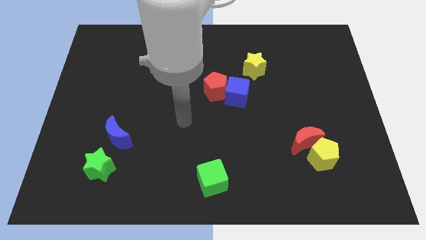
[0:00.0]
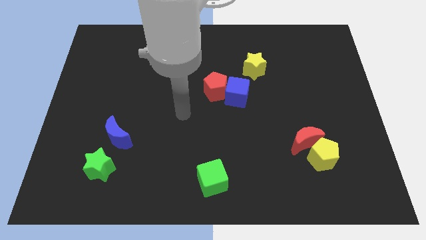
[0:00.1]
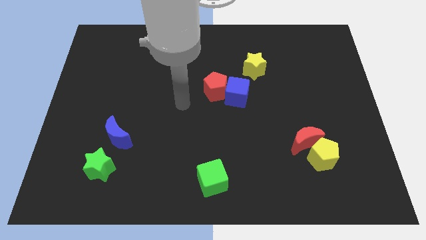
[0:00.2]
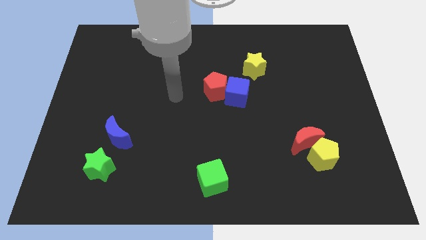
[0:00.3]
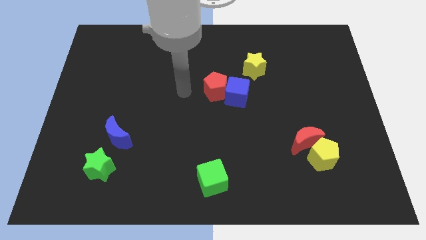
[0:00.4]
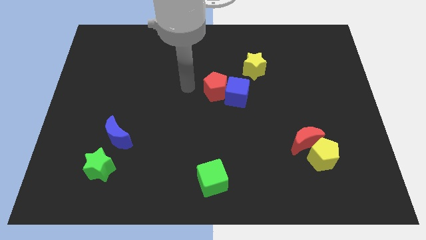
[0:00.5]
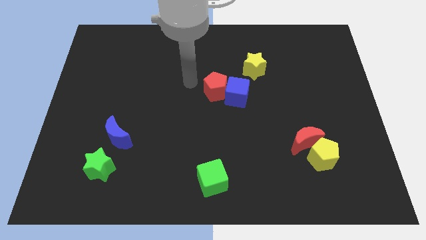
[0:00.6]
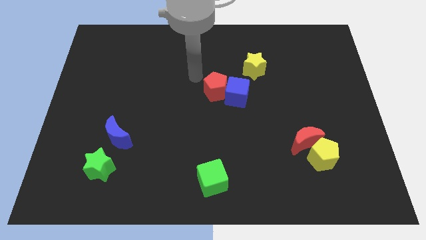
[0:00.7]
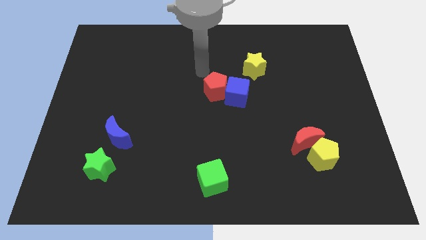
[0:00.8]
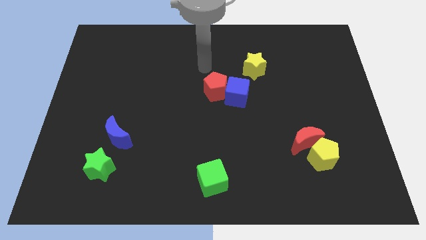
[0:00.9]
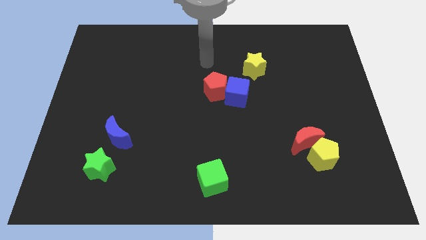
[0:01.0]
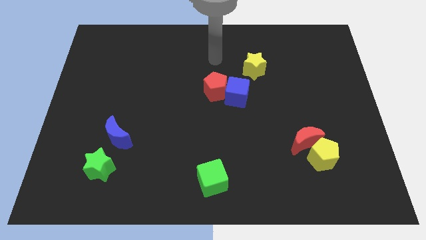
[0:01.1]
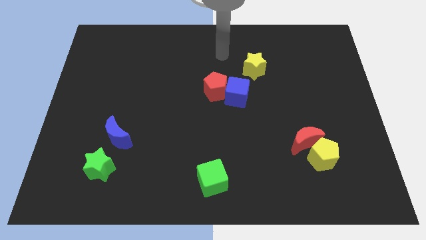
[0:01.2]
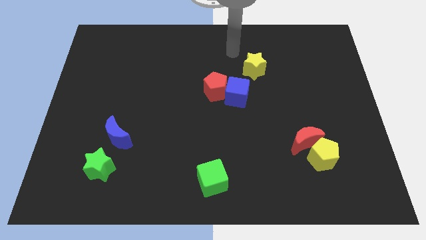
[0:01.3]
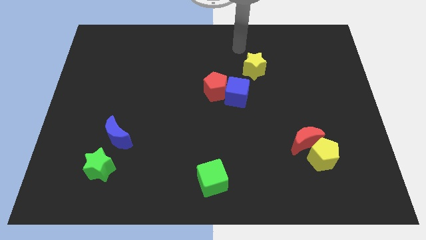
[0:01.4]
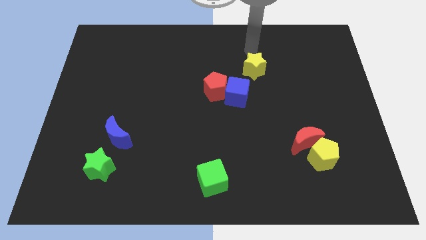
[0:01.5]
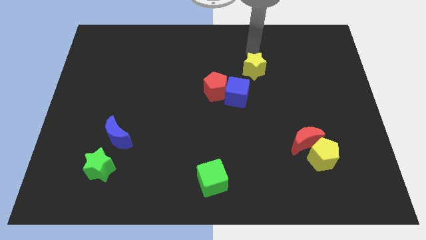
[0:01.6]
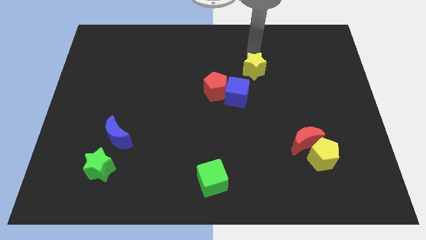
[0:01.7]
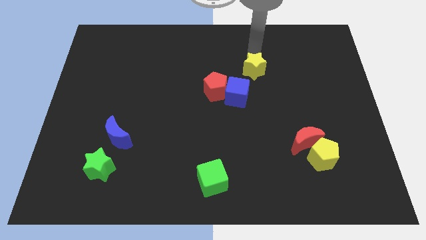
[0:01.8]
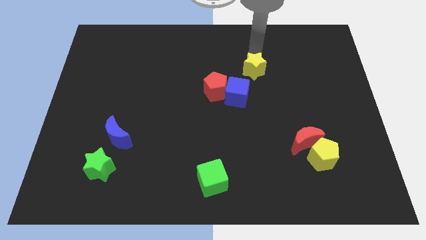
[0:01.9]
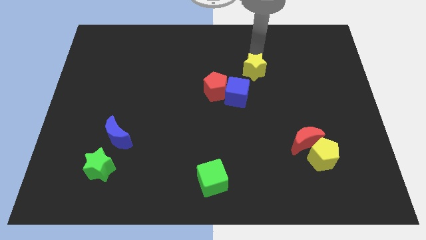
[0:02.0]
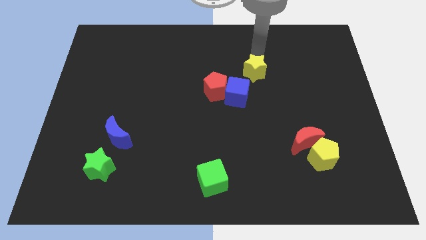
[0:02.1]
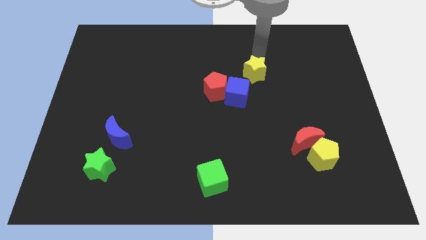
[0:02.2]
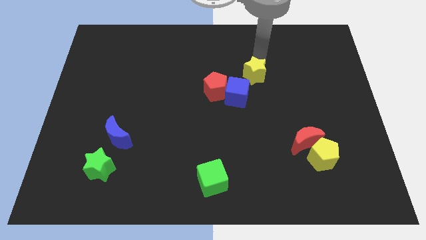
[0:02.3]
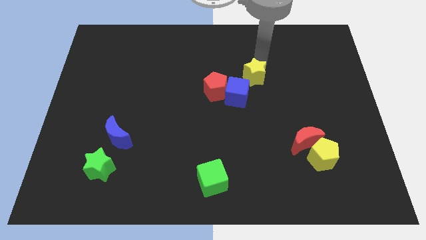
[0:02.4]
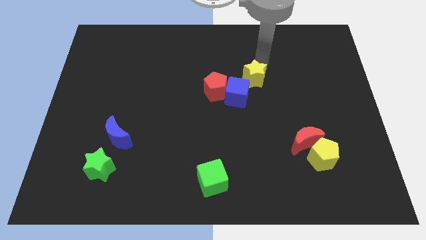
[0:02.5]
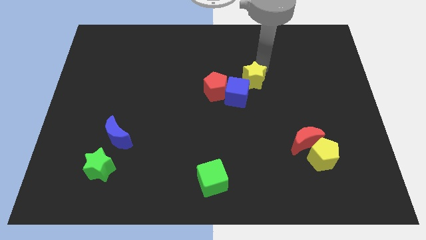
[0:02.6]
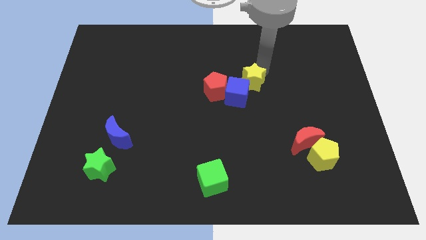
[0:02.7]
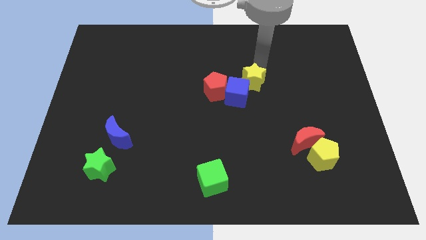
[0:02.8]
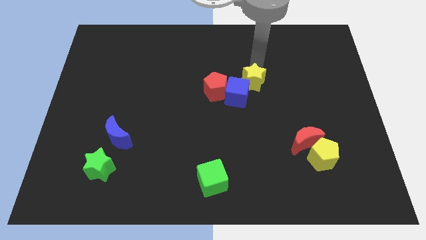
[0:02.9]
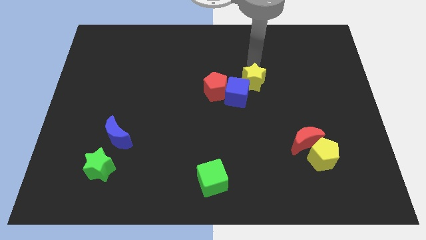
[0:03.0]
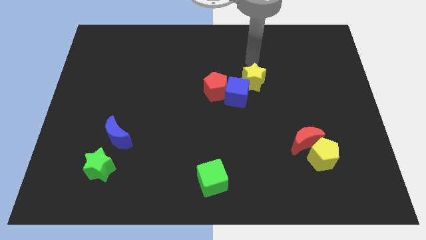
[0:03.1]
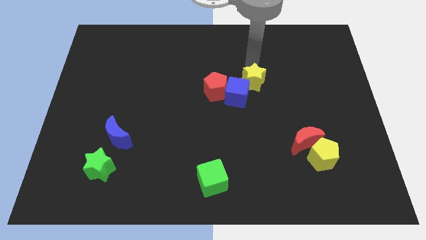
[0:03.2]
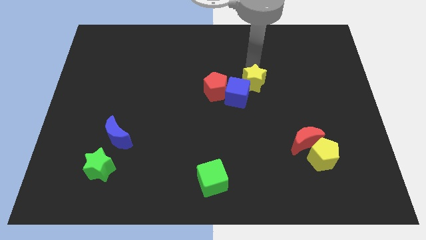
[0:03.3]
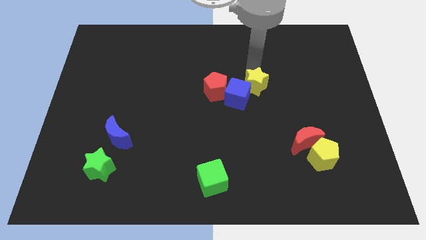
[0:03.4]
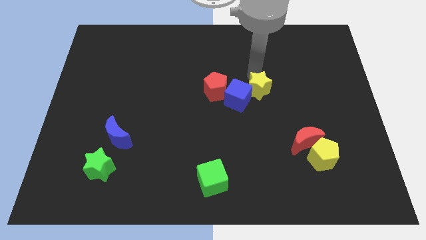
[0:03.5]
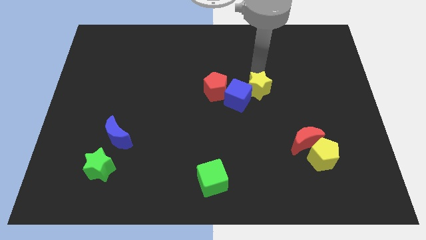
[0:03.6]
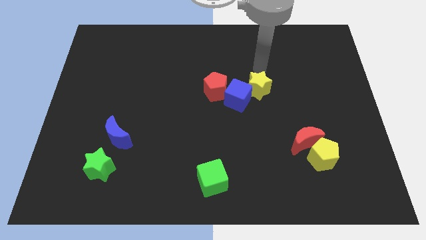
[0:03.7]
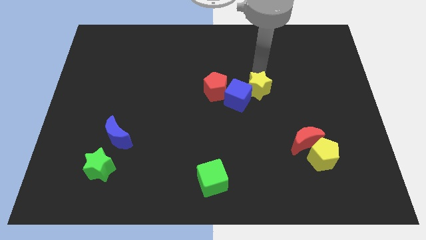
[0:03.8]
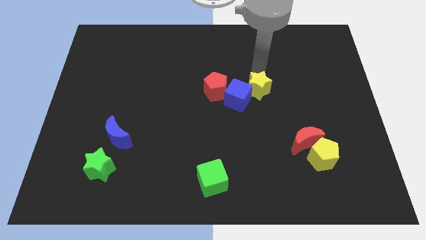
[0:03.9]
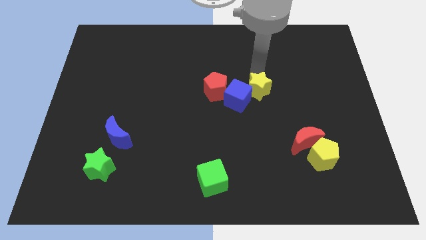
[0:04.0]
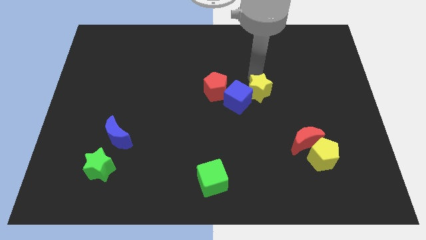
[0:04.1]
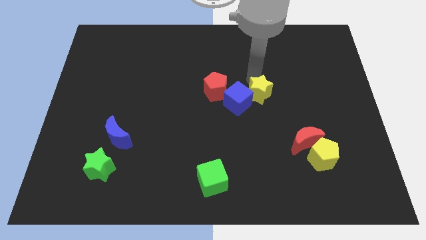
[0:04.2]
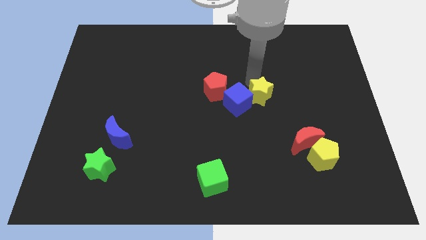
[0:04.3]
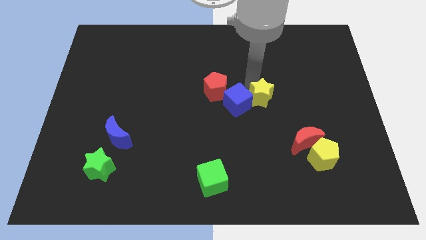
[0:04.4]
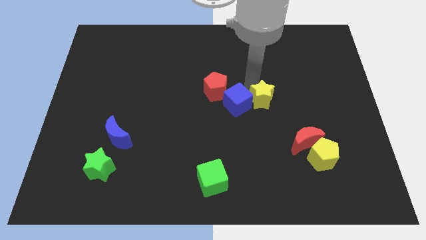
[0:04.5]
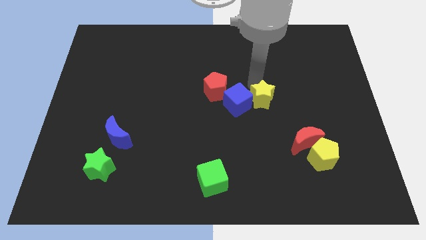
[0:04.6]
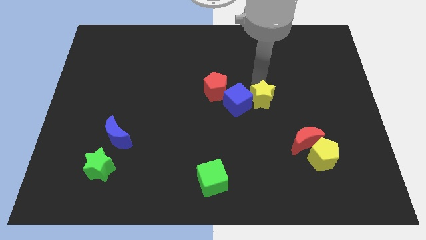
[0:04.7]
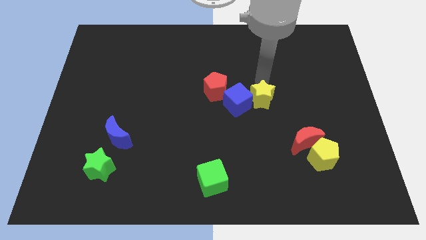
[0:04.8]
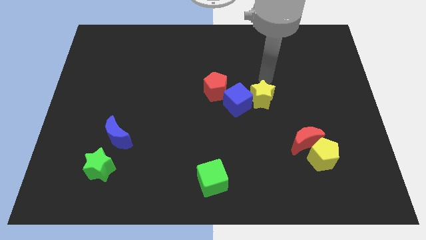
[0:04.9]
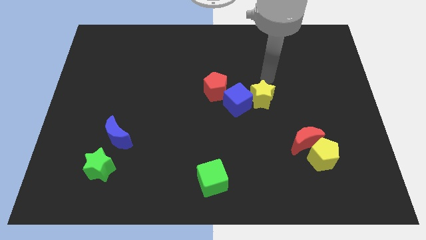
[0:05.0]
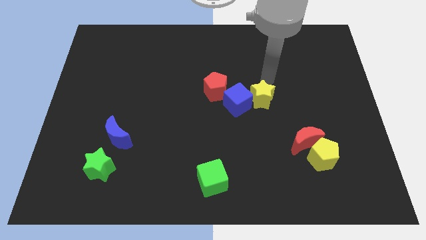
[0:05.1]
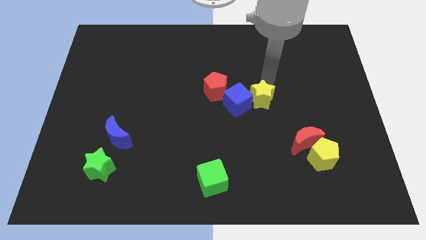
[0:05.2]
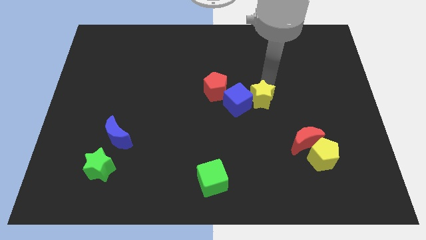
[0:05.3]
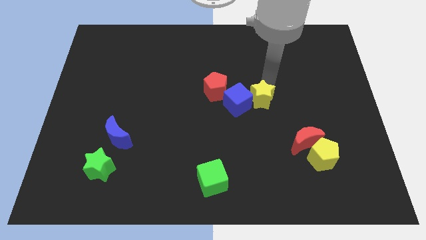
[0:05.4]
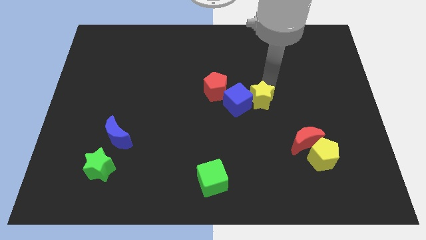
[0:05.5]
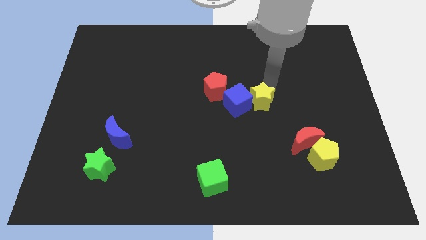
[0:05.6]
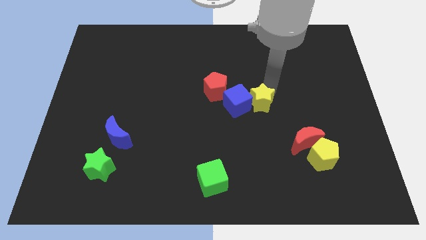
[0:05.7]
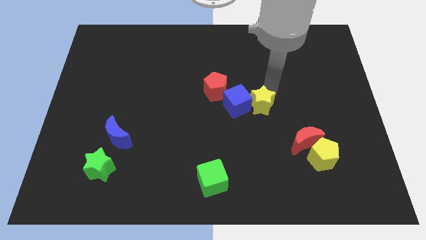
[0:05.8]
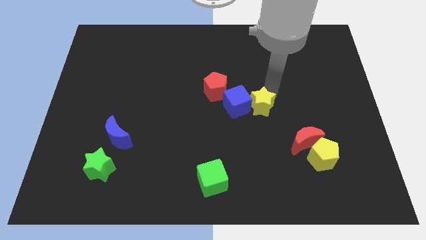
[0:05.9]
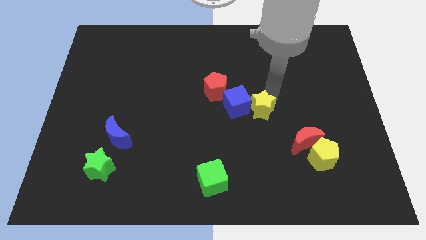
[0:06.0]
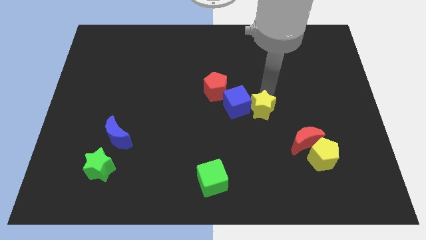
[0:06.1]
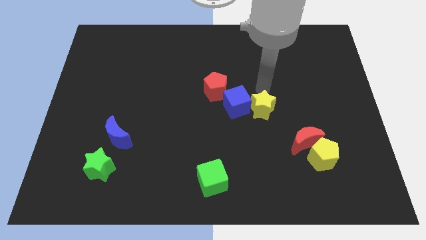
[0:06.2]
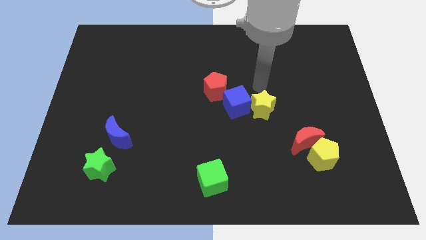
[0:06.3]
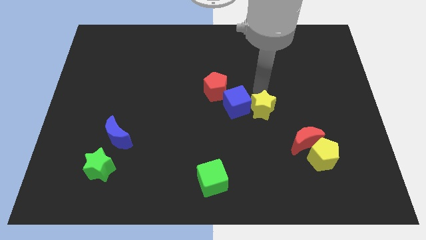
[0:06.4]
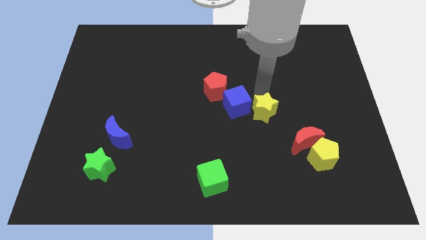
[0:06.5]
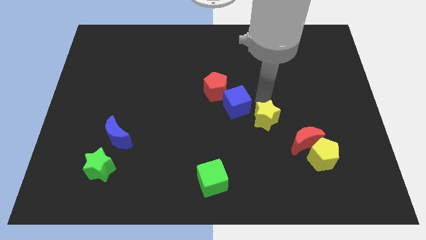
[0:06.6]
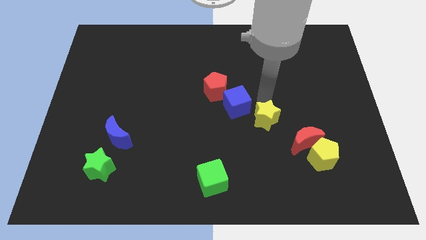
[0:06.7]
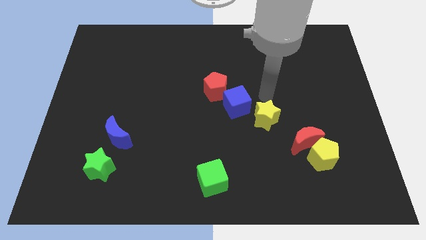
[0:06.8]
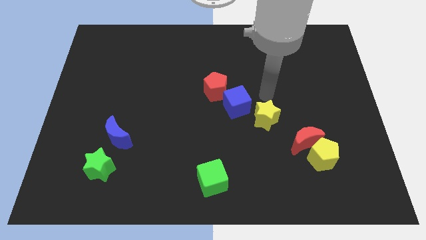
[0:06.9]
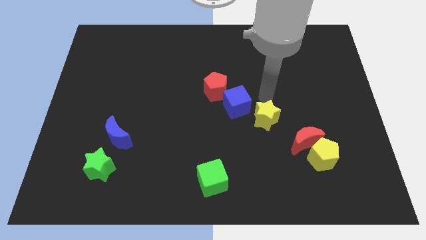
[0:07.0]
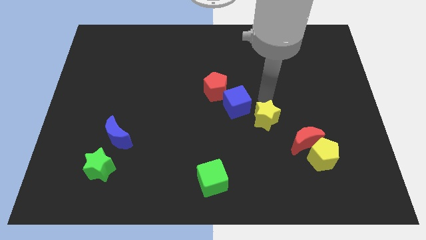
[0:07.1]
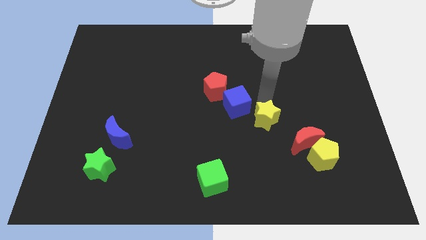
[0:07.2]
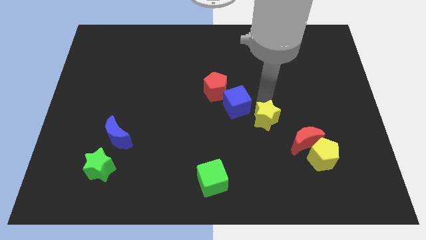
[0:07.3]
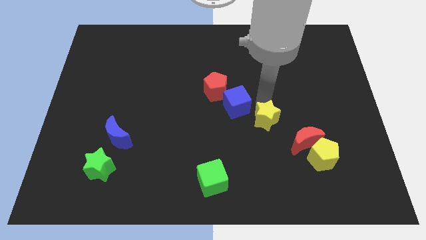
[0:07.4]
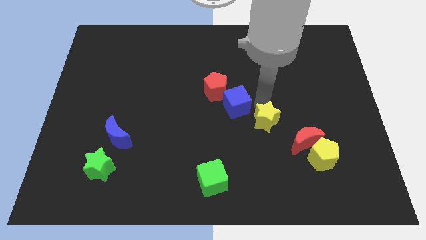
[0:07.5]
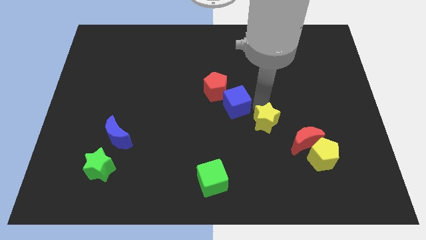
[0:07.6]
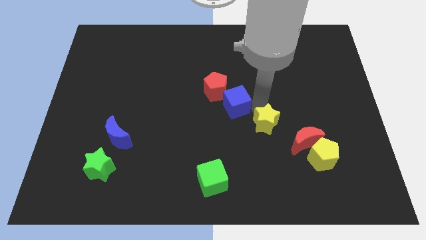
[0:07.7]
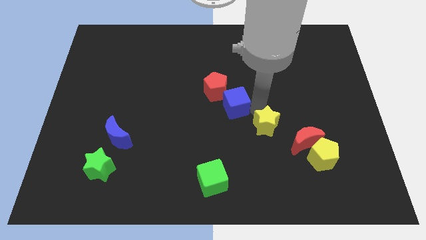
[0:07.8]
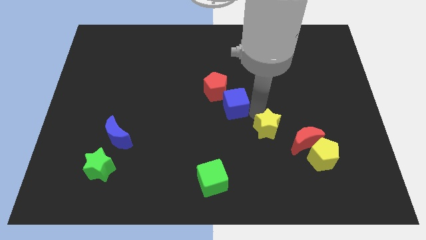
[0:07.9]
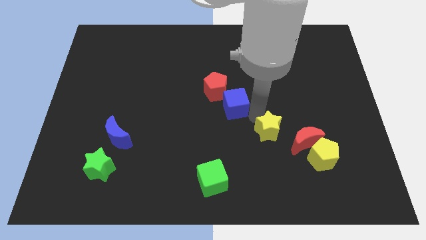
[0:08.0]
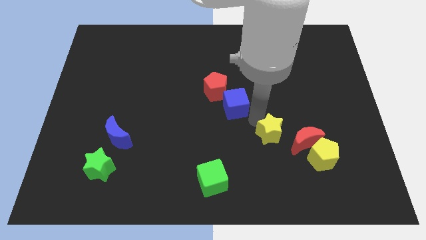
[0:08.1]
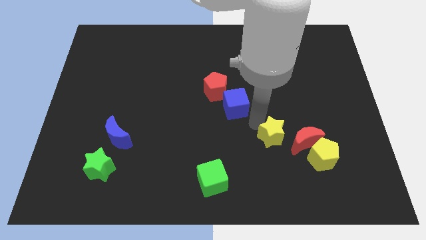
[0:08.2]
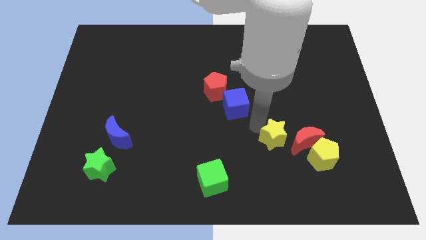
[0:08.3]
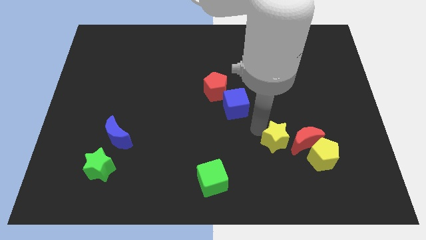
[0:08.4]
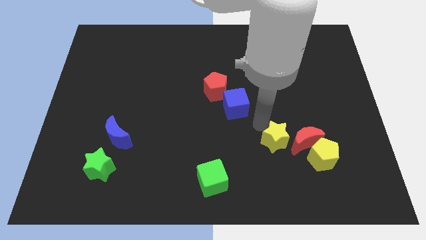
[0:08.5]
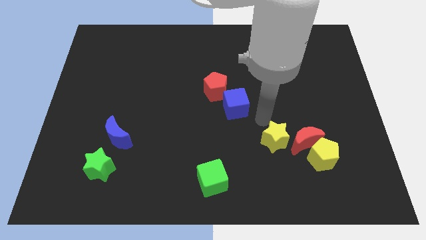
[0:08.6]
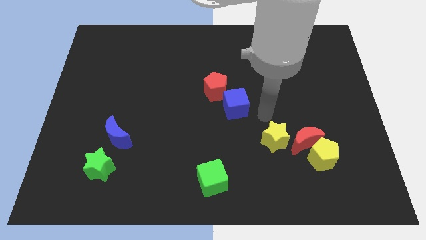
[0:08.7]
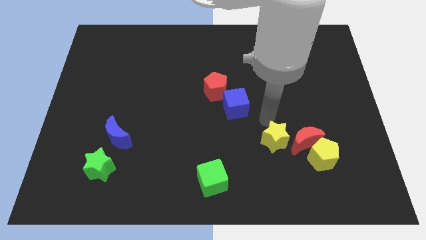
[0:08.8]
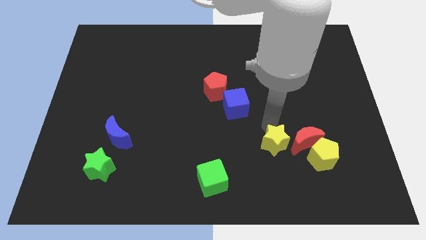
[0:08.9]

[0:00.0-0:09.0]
slide the yellow star diagonally down and to the left of the red moon
